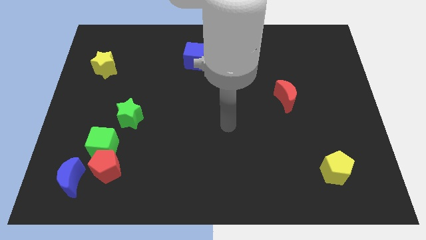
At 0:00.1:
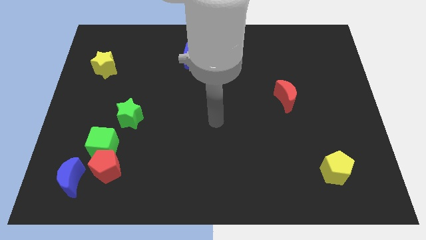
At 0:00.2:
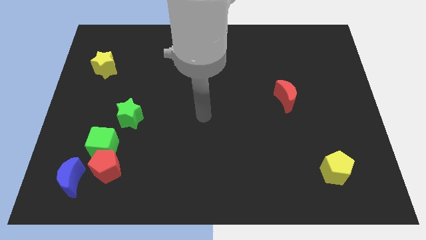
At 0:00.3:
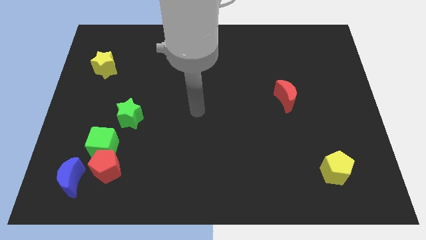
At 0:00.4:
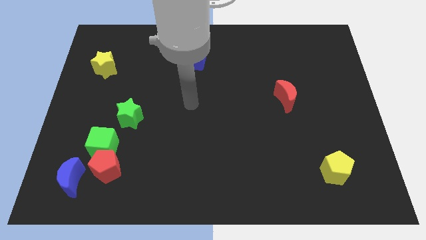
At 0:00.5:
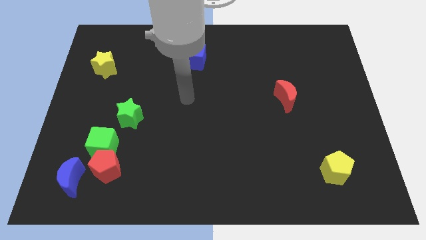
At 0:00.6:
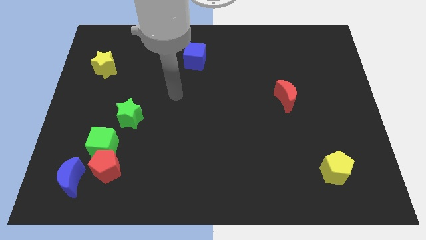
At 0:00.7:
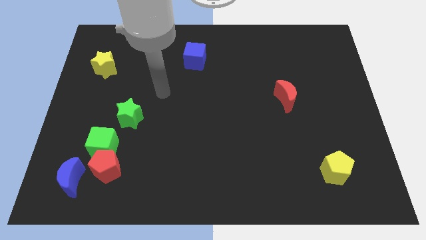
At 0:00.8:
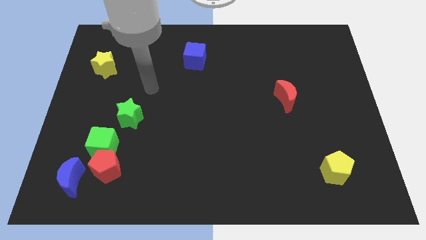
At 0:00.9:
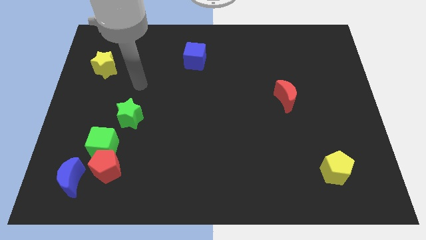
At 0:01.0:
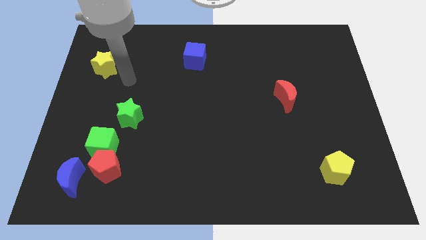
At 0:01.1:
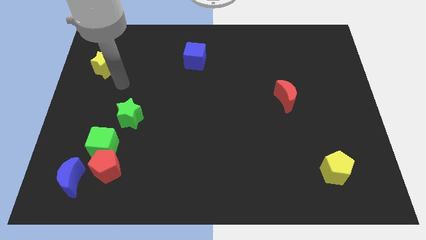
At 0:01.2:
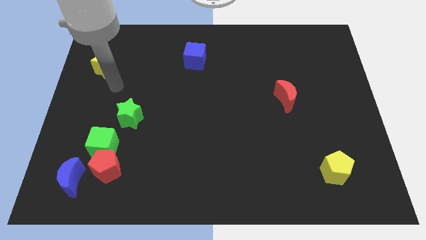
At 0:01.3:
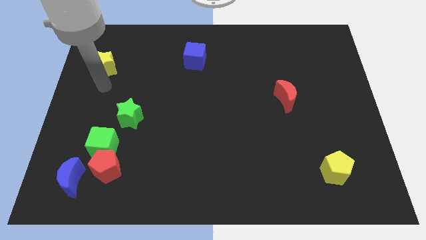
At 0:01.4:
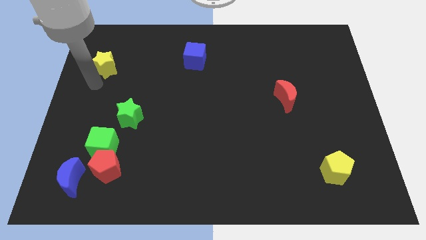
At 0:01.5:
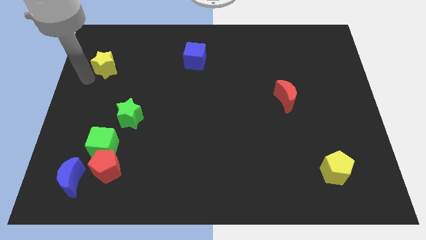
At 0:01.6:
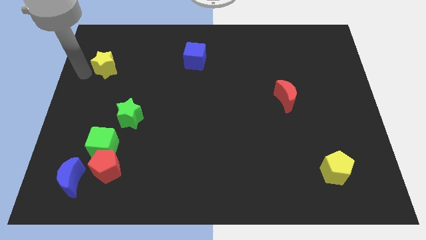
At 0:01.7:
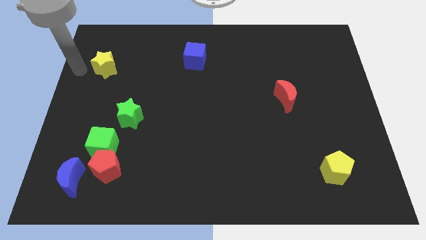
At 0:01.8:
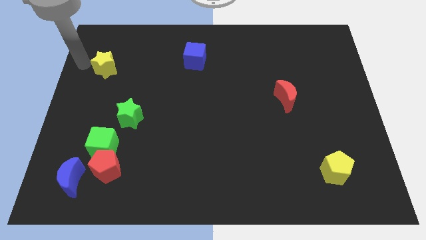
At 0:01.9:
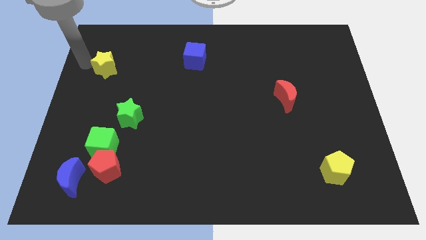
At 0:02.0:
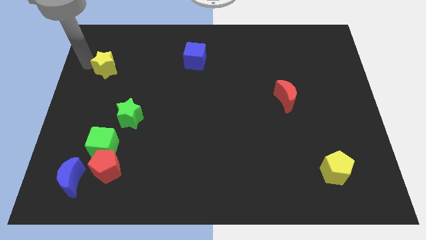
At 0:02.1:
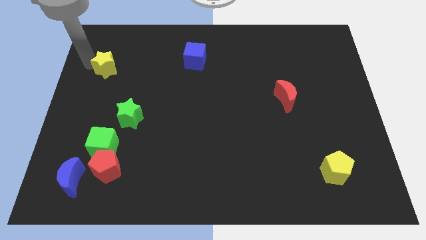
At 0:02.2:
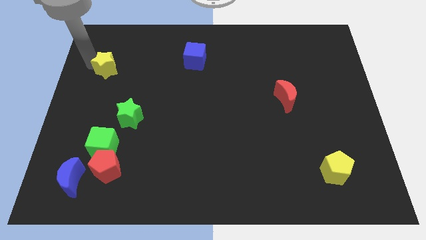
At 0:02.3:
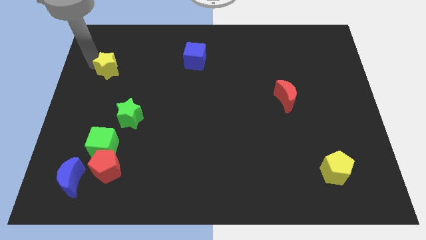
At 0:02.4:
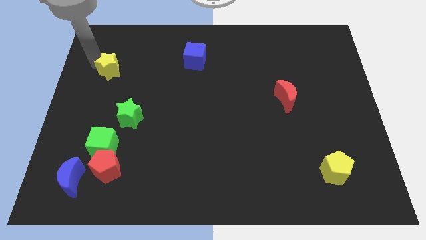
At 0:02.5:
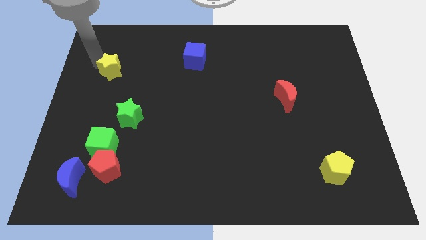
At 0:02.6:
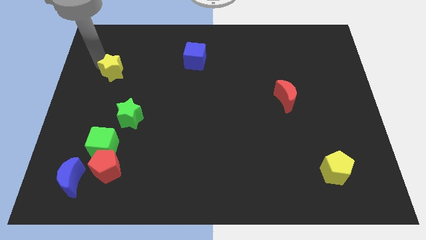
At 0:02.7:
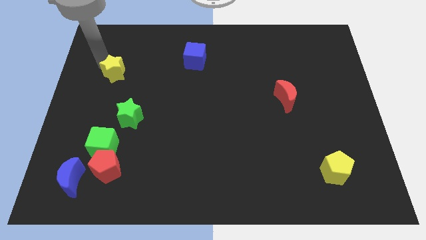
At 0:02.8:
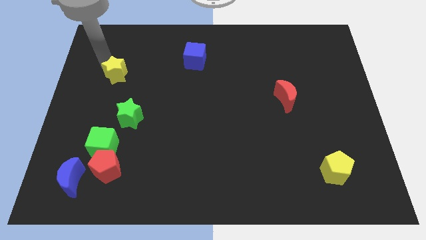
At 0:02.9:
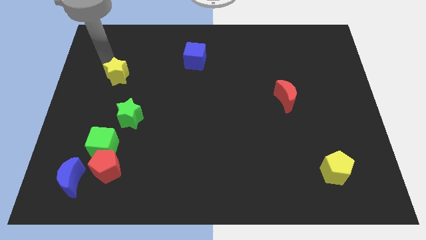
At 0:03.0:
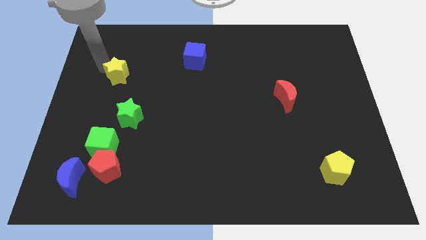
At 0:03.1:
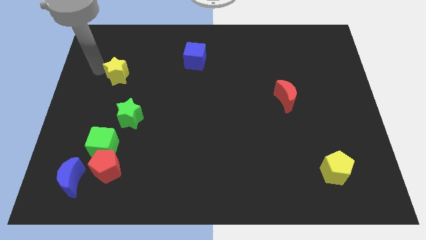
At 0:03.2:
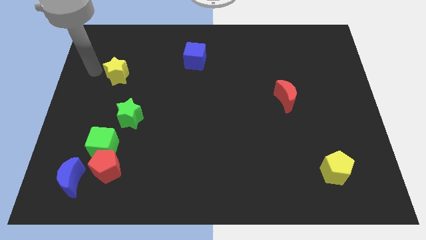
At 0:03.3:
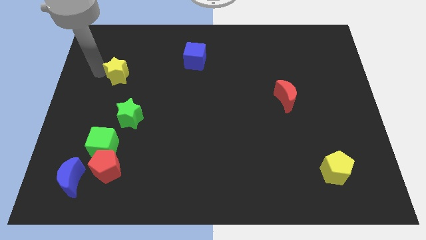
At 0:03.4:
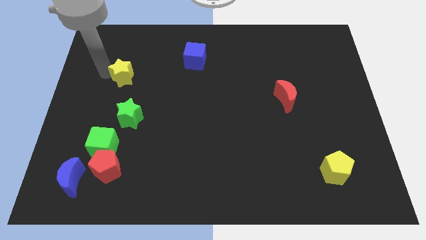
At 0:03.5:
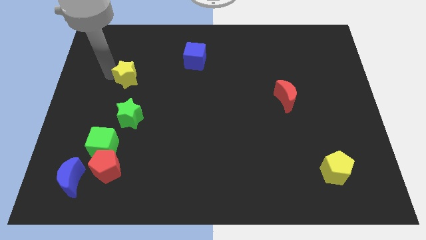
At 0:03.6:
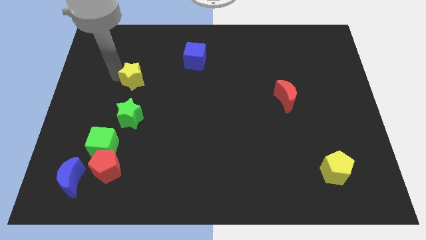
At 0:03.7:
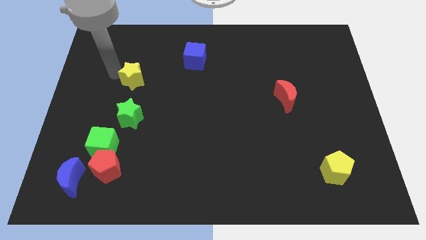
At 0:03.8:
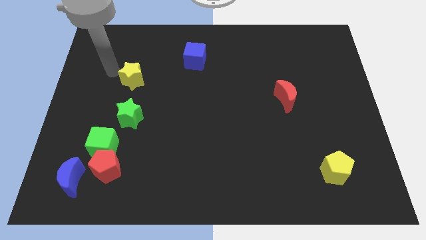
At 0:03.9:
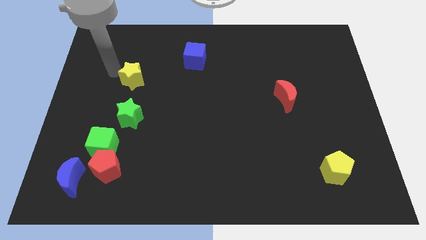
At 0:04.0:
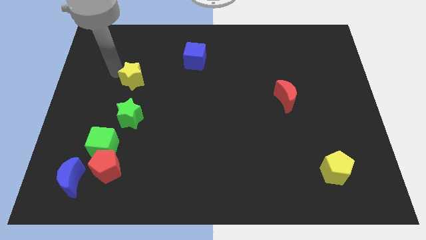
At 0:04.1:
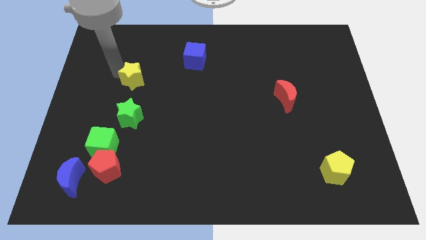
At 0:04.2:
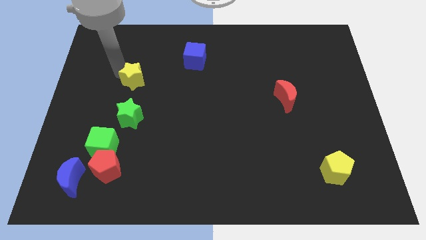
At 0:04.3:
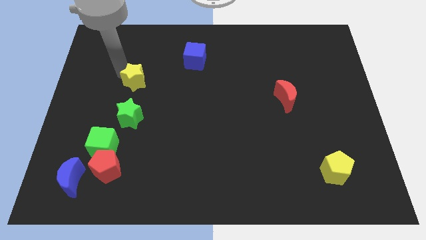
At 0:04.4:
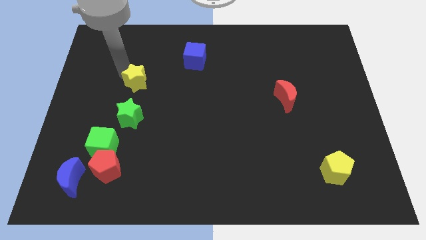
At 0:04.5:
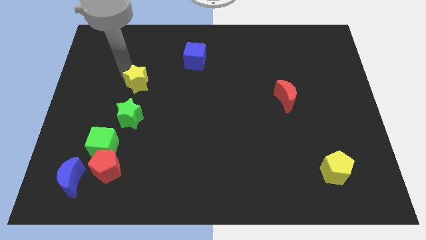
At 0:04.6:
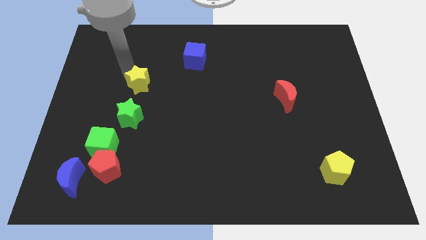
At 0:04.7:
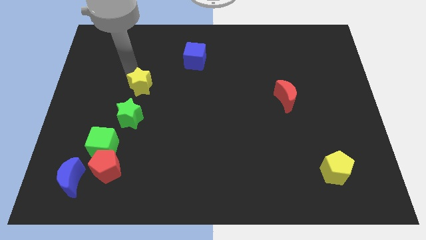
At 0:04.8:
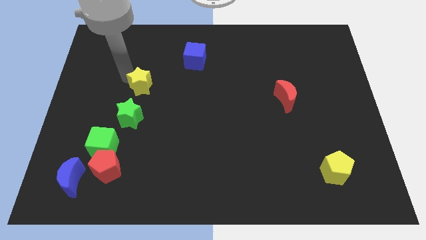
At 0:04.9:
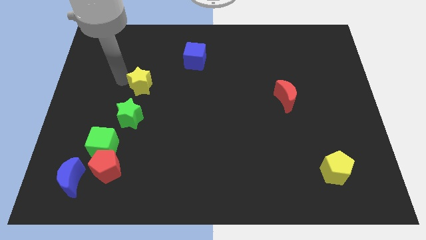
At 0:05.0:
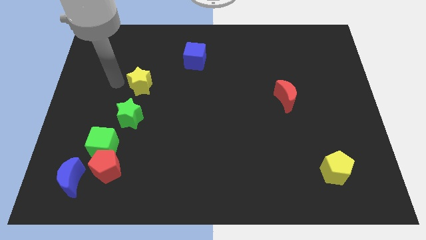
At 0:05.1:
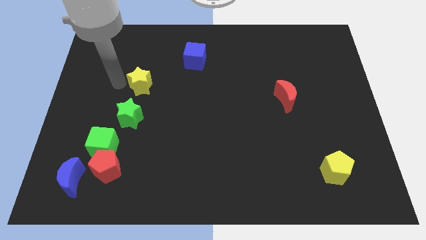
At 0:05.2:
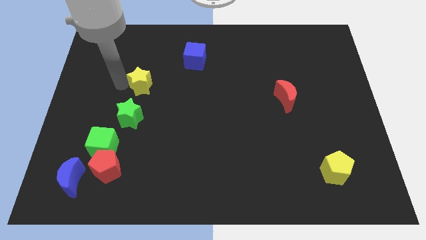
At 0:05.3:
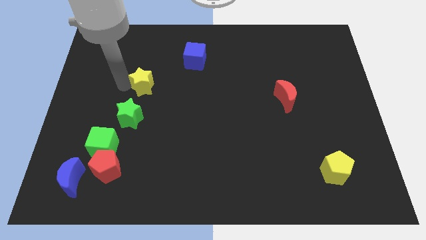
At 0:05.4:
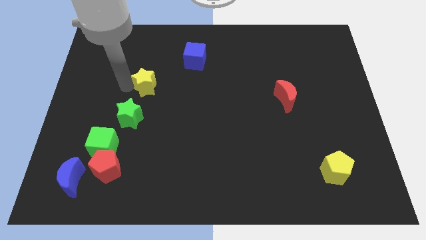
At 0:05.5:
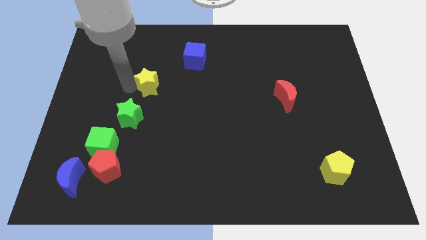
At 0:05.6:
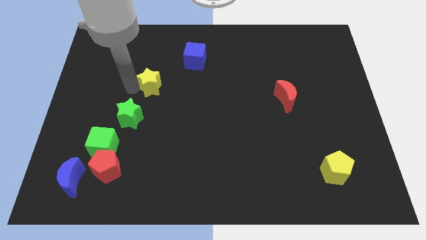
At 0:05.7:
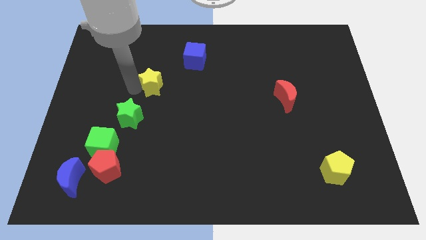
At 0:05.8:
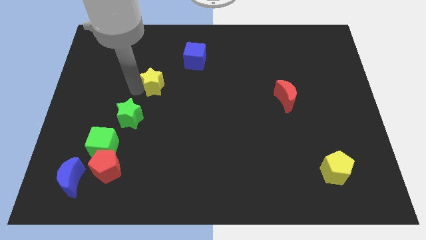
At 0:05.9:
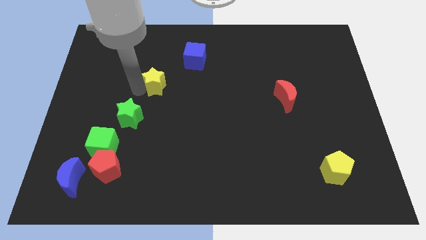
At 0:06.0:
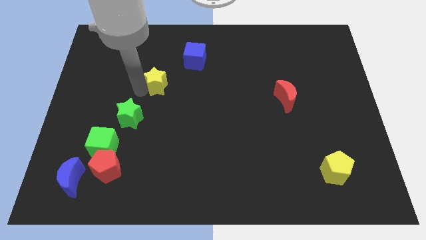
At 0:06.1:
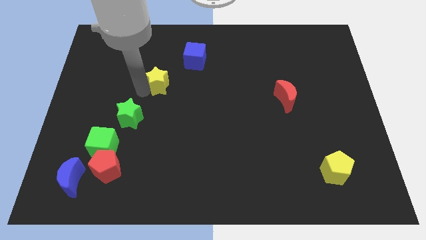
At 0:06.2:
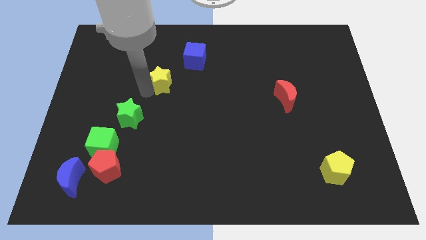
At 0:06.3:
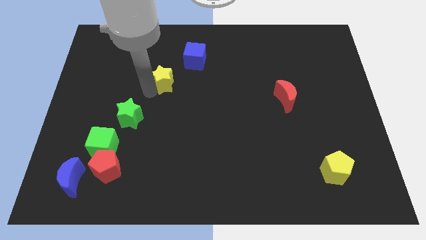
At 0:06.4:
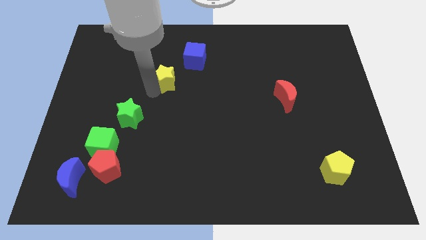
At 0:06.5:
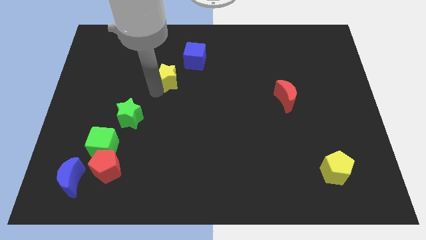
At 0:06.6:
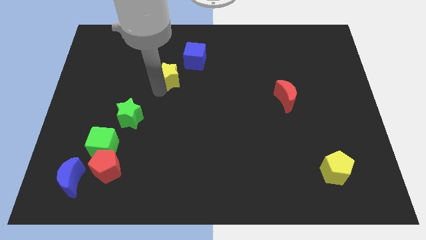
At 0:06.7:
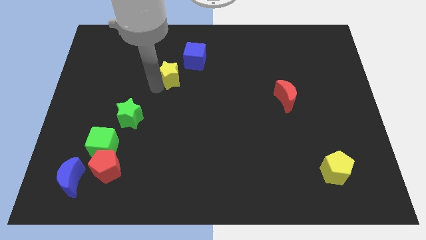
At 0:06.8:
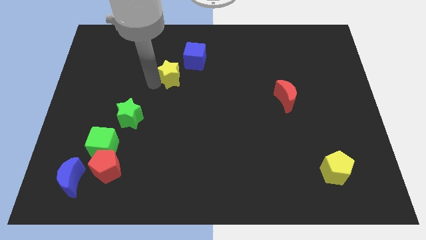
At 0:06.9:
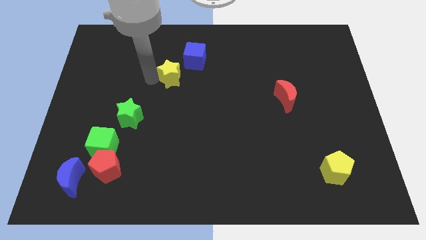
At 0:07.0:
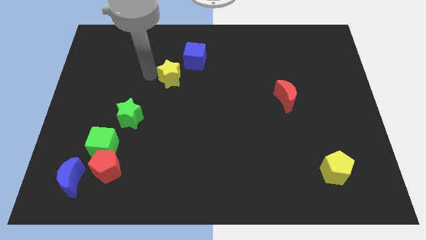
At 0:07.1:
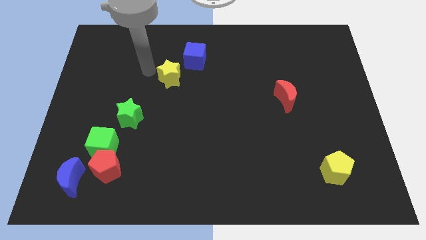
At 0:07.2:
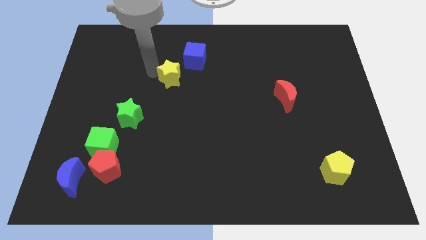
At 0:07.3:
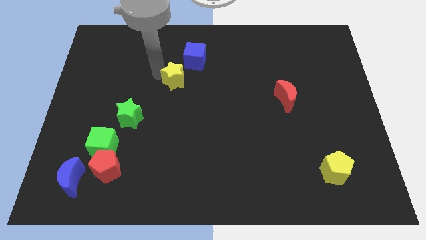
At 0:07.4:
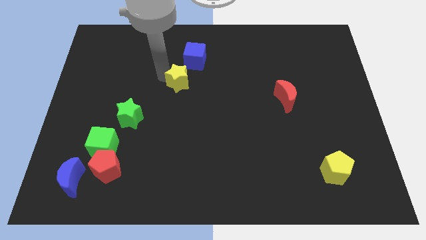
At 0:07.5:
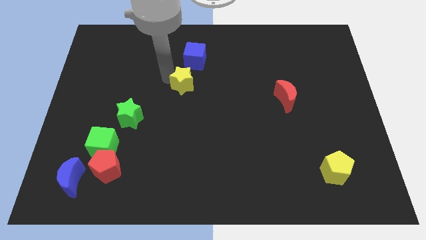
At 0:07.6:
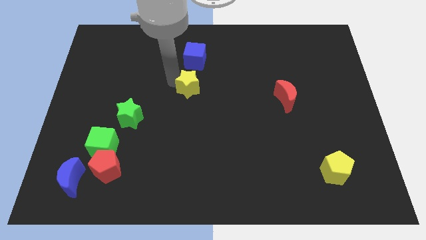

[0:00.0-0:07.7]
push the yellow star right
